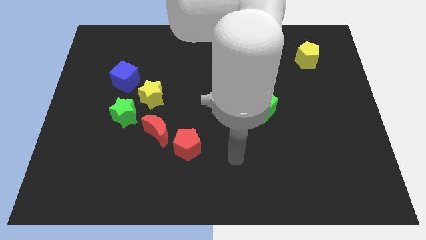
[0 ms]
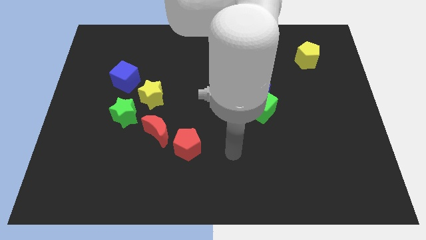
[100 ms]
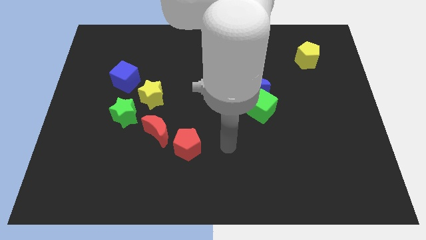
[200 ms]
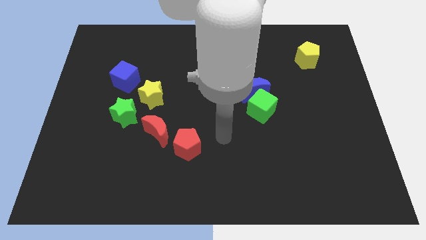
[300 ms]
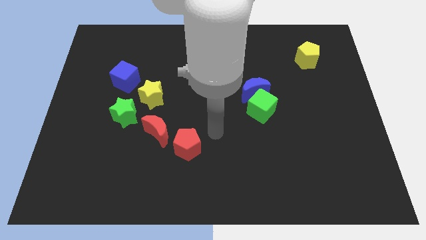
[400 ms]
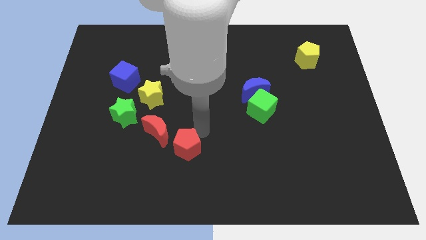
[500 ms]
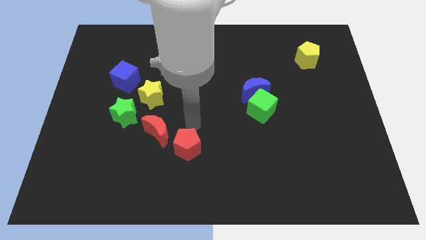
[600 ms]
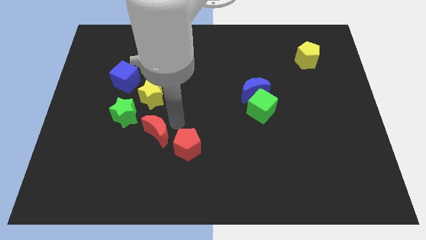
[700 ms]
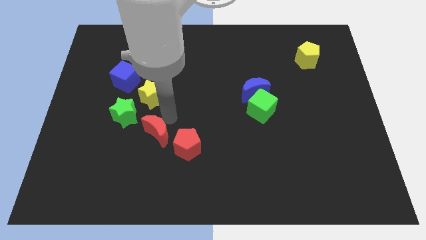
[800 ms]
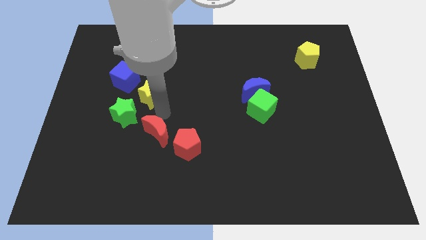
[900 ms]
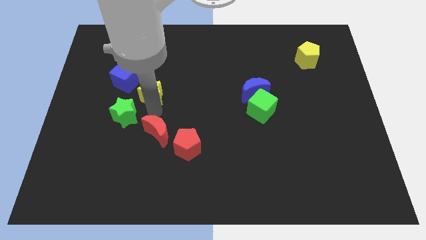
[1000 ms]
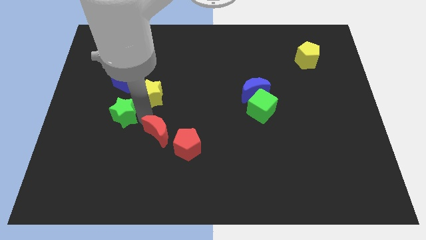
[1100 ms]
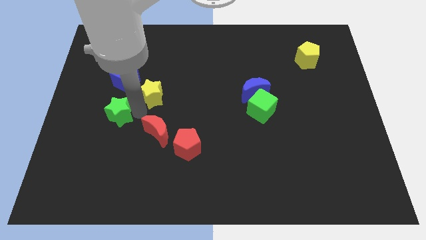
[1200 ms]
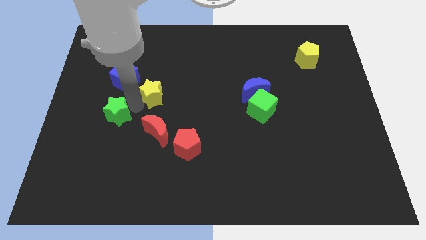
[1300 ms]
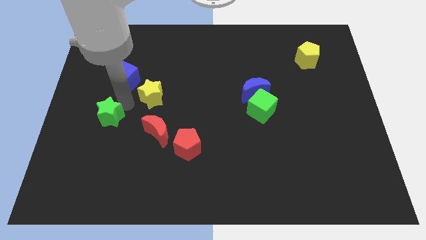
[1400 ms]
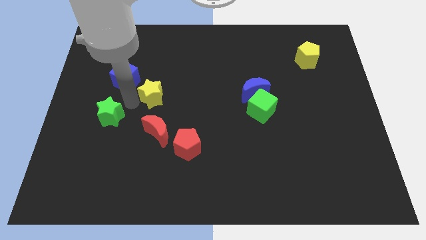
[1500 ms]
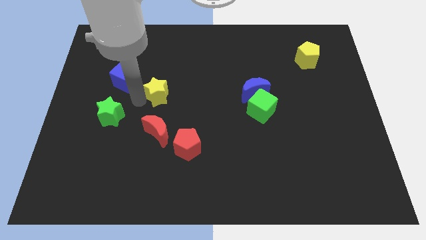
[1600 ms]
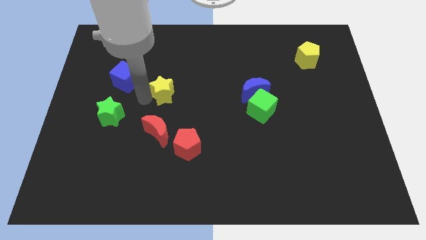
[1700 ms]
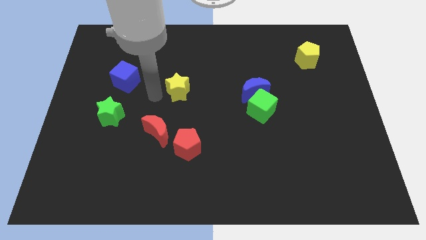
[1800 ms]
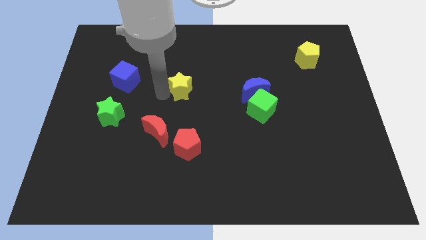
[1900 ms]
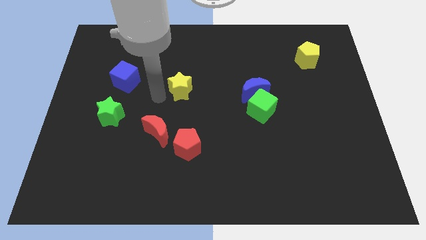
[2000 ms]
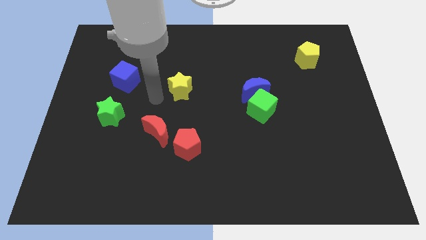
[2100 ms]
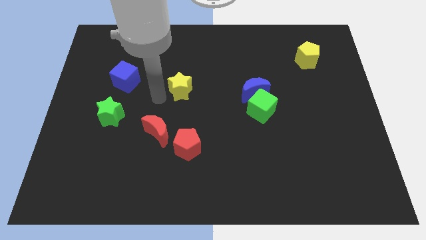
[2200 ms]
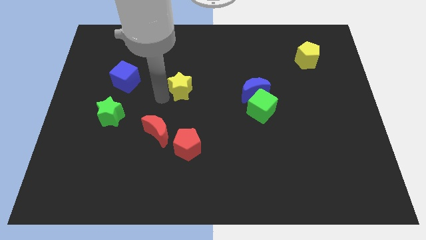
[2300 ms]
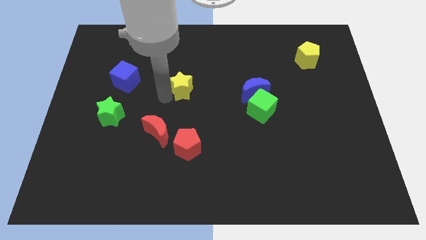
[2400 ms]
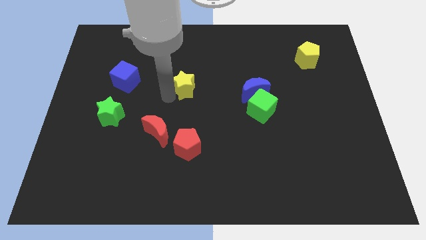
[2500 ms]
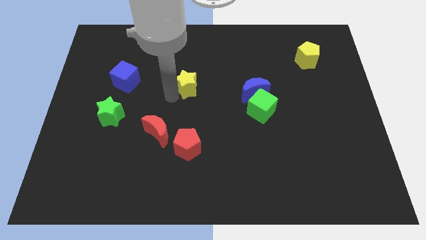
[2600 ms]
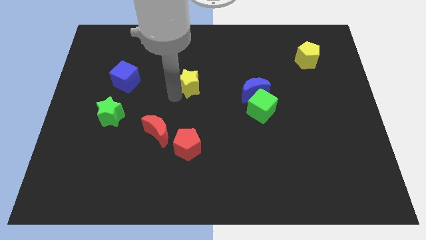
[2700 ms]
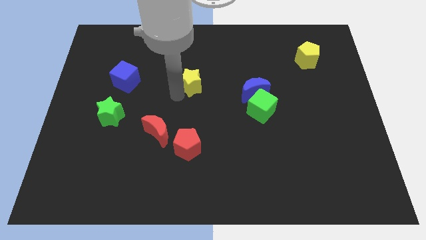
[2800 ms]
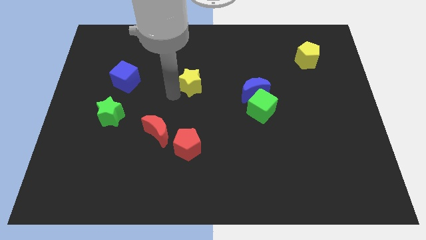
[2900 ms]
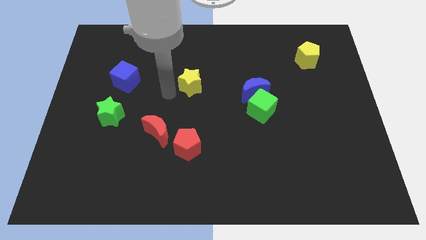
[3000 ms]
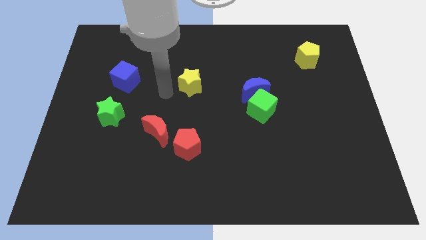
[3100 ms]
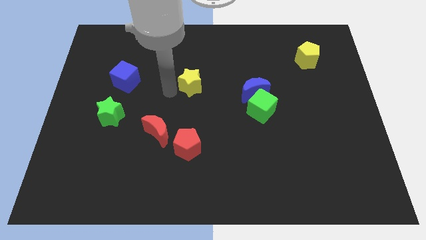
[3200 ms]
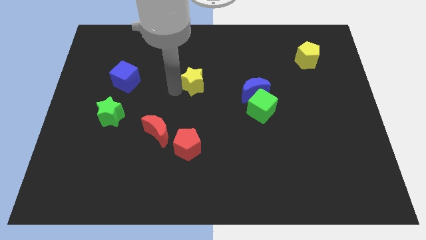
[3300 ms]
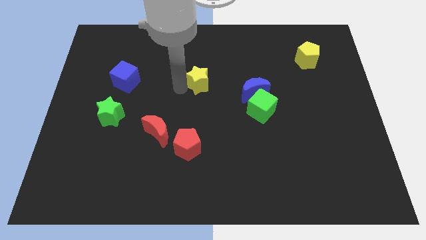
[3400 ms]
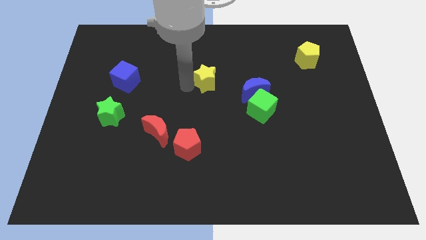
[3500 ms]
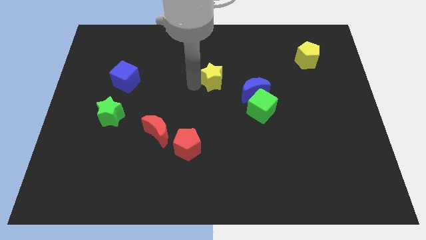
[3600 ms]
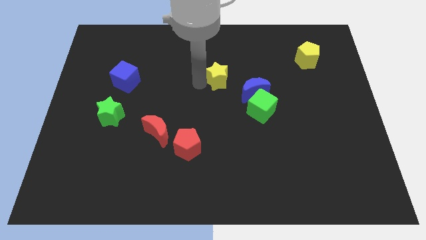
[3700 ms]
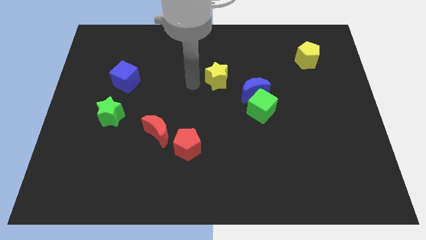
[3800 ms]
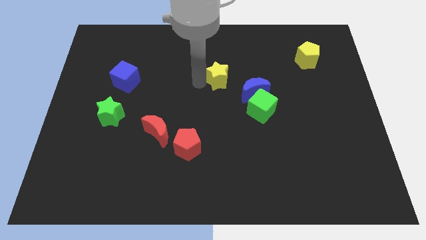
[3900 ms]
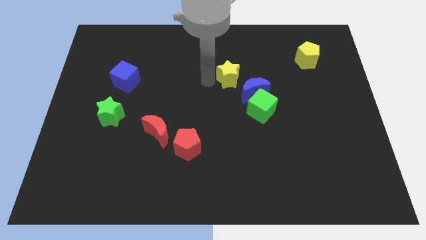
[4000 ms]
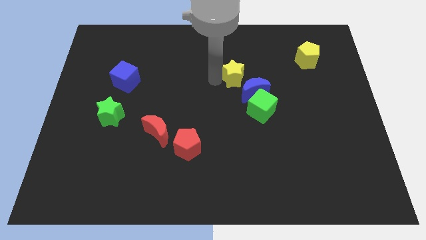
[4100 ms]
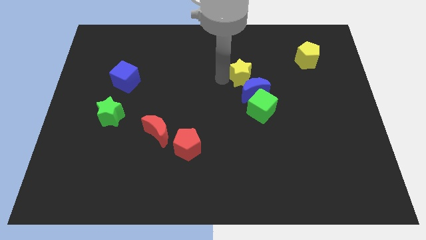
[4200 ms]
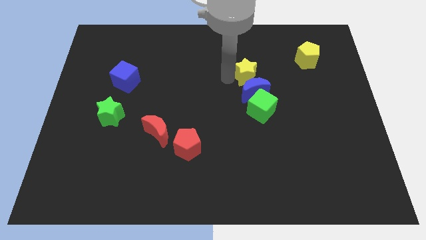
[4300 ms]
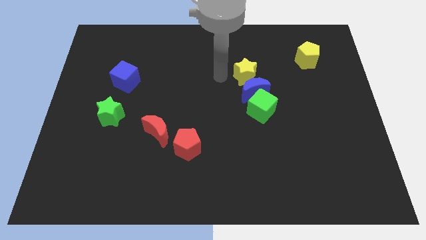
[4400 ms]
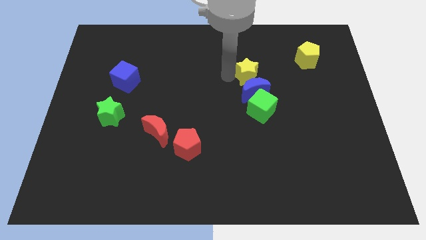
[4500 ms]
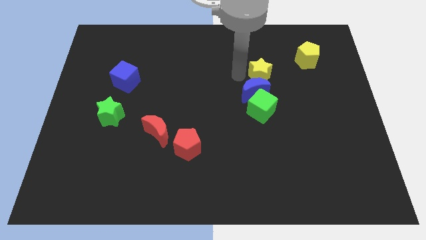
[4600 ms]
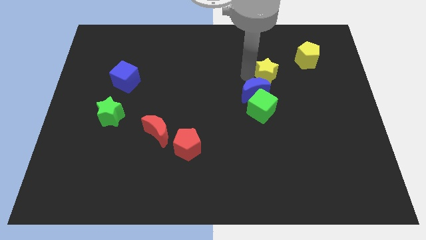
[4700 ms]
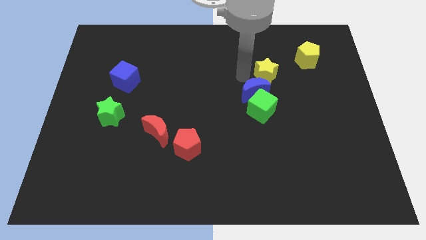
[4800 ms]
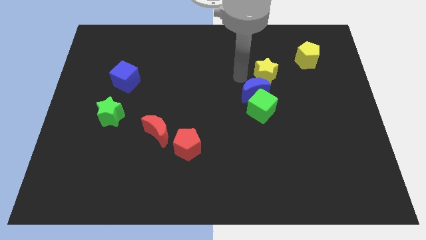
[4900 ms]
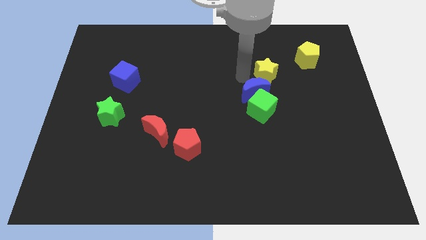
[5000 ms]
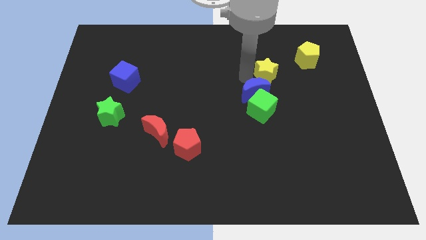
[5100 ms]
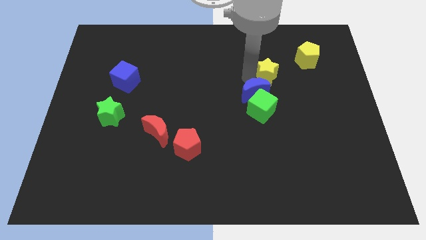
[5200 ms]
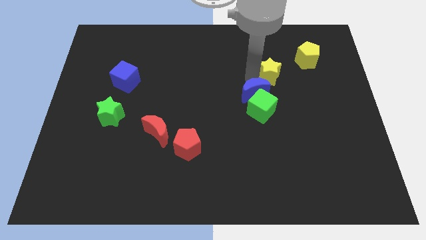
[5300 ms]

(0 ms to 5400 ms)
slide the yellow star to the bottom left of the yellow pentagon

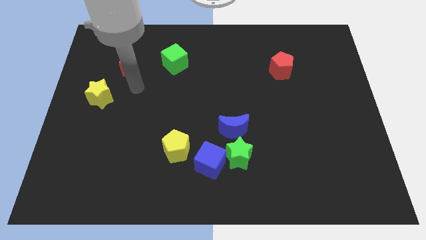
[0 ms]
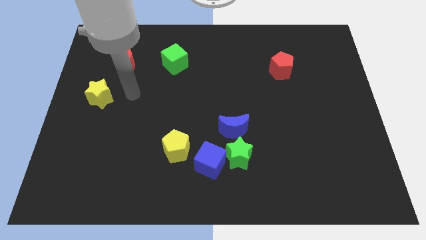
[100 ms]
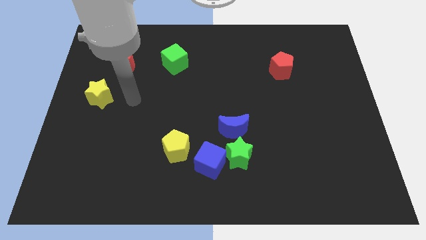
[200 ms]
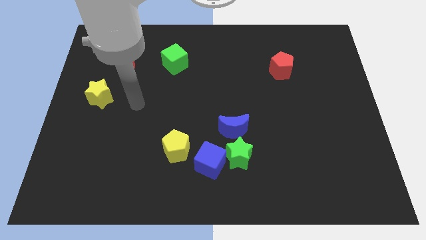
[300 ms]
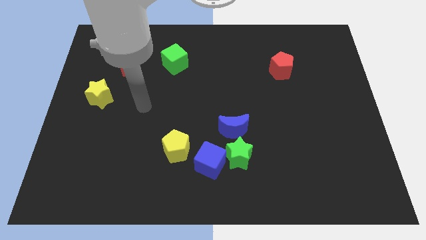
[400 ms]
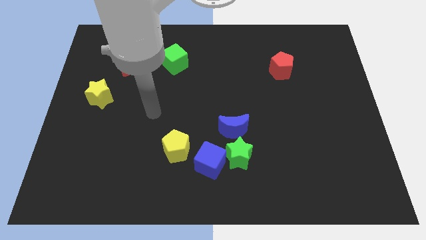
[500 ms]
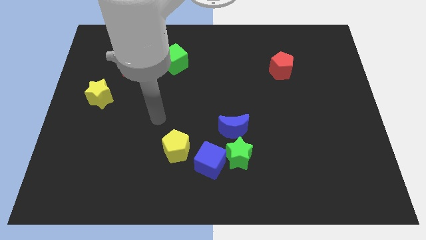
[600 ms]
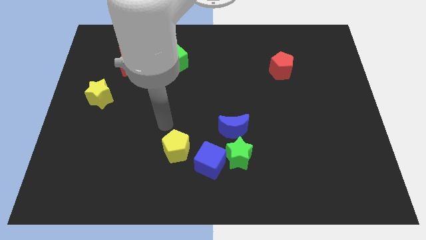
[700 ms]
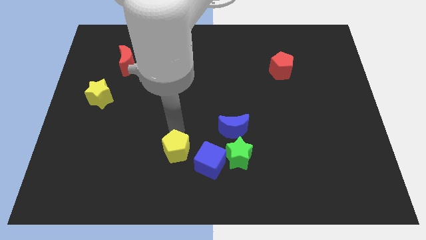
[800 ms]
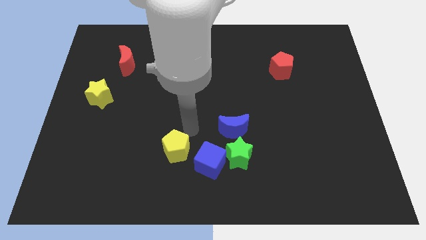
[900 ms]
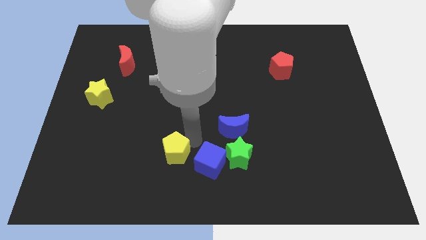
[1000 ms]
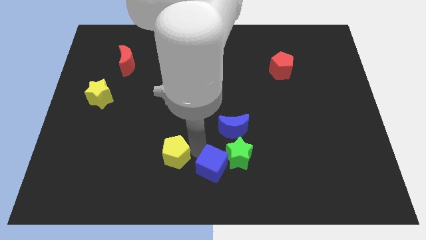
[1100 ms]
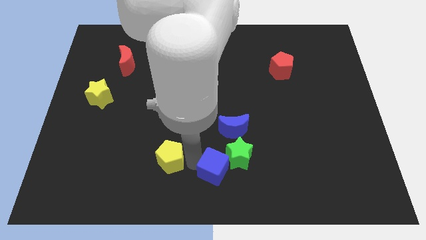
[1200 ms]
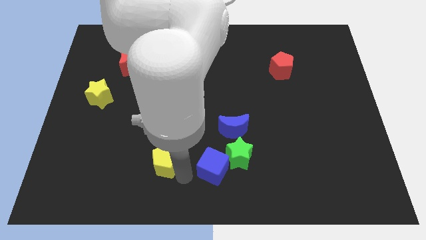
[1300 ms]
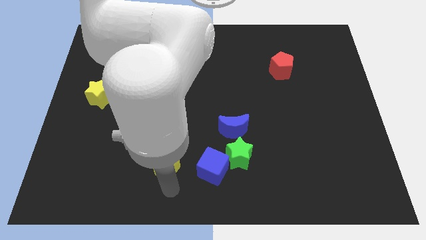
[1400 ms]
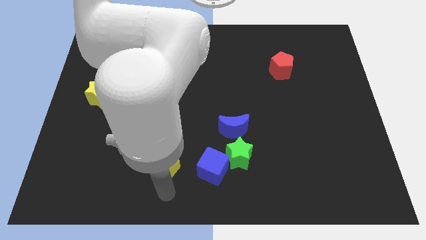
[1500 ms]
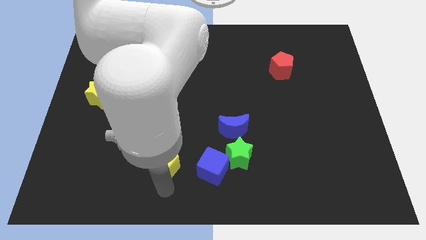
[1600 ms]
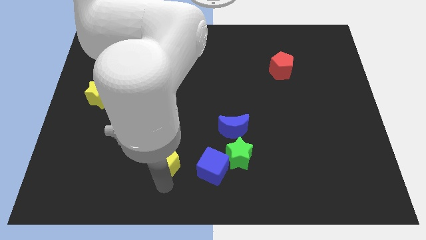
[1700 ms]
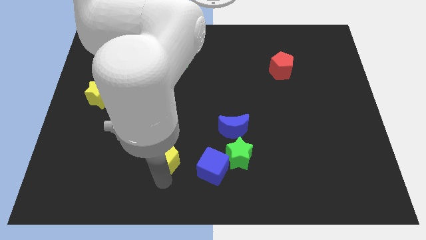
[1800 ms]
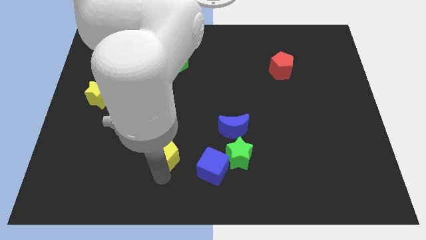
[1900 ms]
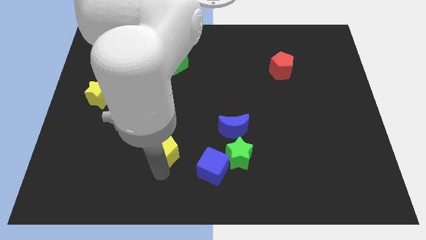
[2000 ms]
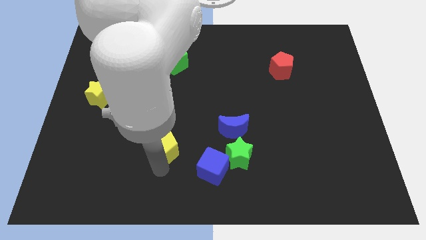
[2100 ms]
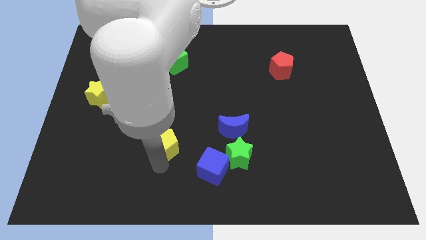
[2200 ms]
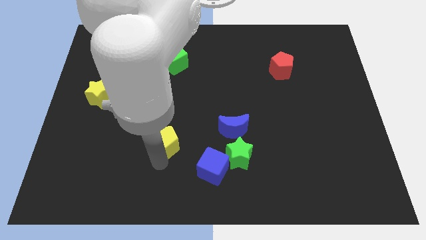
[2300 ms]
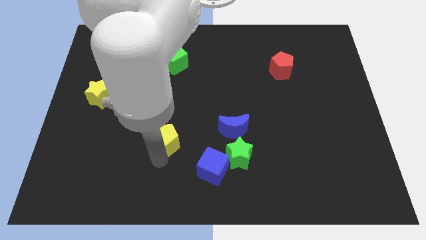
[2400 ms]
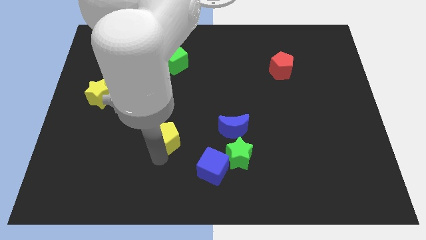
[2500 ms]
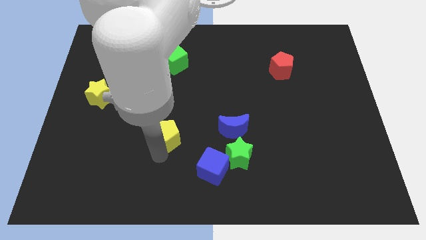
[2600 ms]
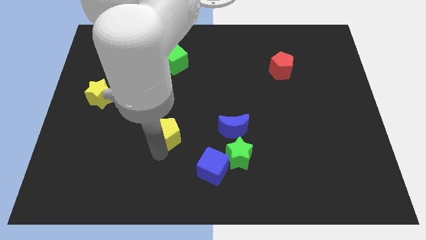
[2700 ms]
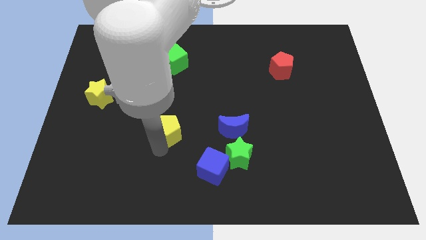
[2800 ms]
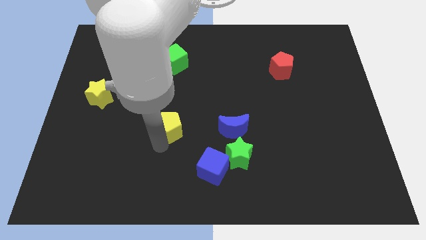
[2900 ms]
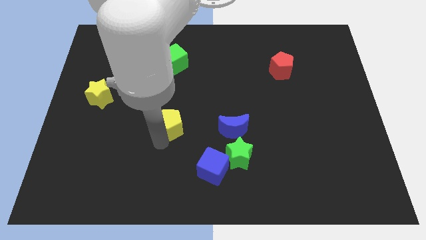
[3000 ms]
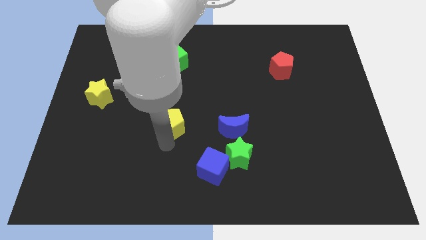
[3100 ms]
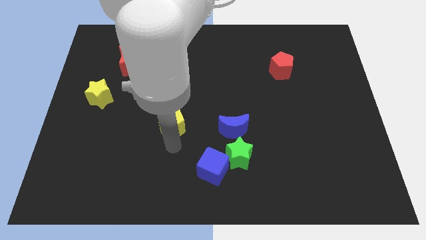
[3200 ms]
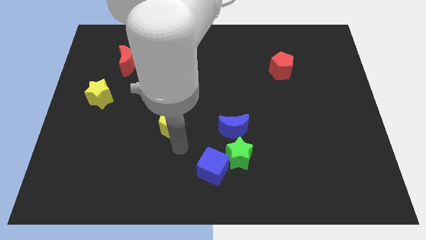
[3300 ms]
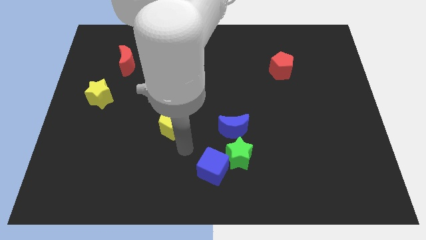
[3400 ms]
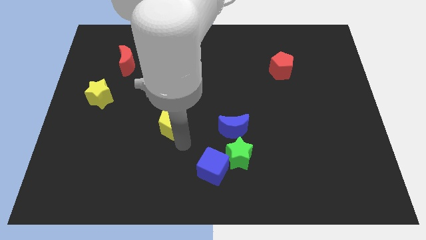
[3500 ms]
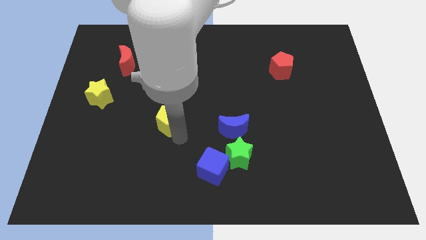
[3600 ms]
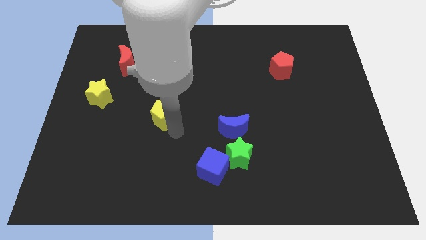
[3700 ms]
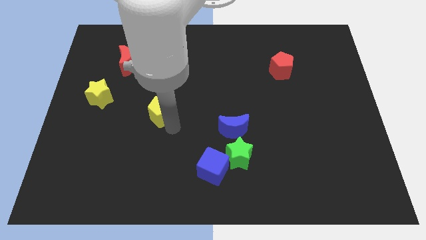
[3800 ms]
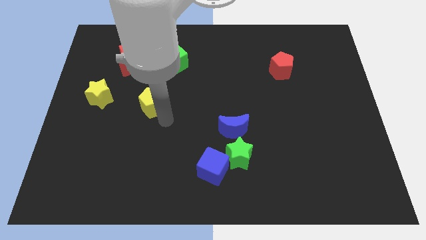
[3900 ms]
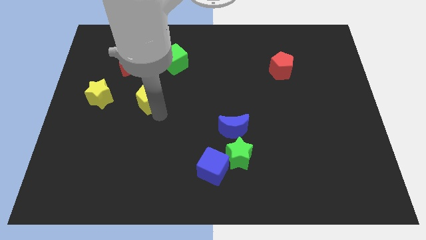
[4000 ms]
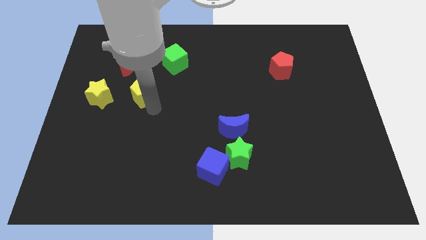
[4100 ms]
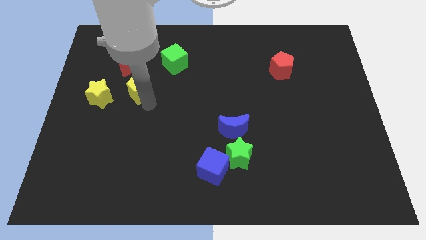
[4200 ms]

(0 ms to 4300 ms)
put the yellow pentagon to the bottom left side of the green cube
